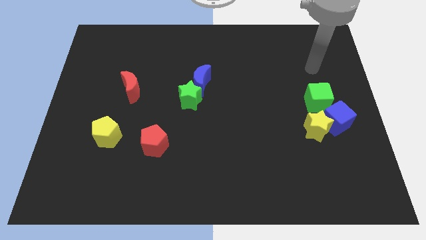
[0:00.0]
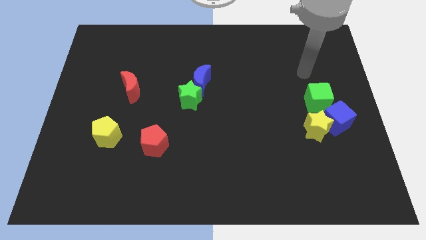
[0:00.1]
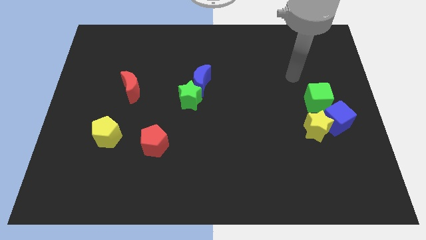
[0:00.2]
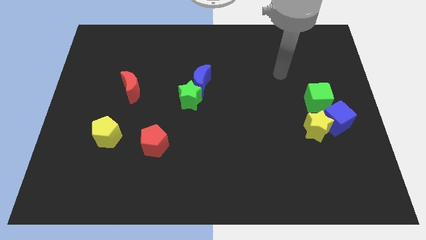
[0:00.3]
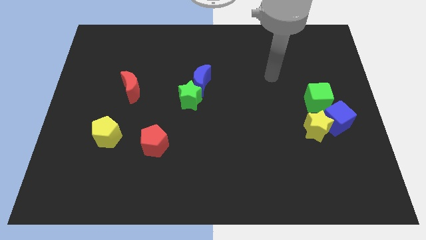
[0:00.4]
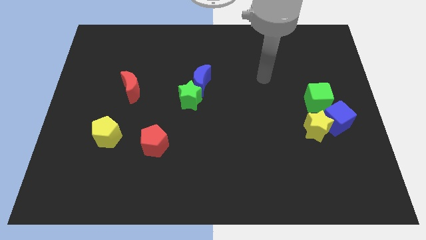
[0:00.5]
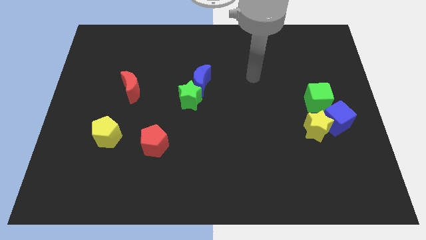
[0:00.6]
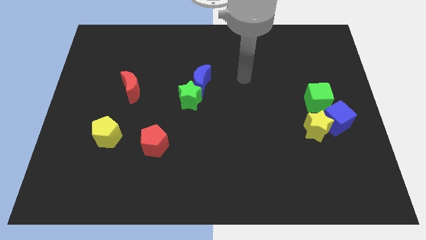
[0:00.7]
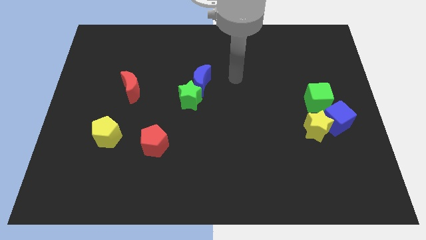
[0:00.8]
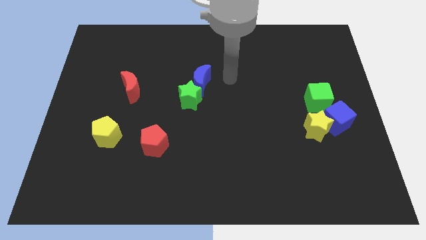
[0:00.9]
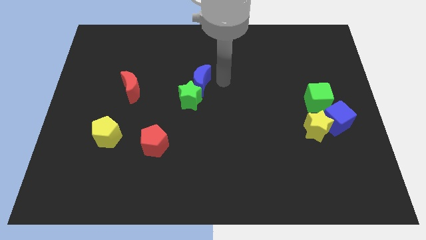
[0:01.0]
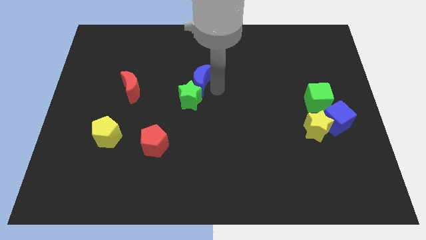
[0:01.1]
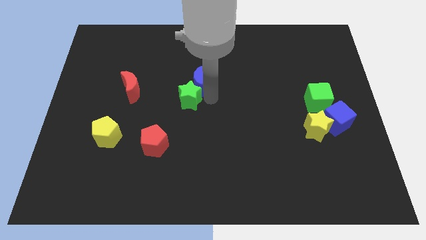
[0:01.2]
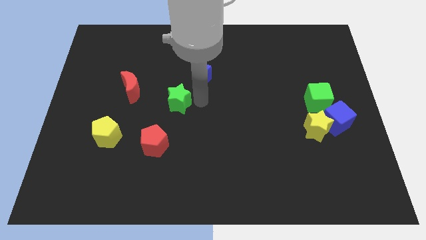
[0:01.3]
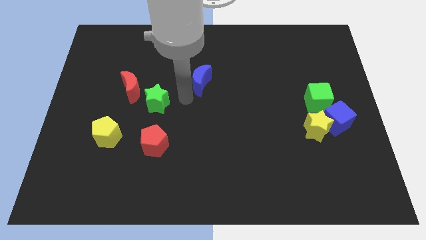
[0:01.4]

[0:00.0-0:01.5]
separate the blue moon from the green star

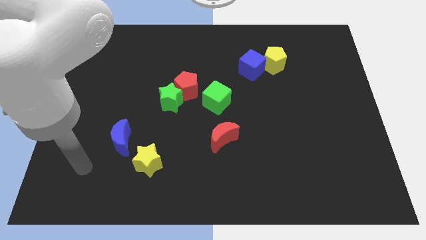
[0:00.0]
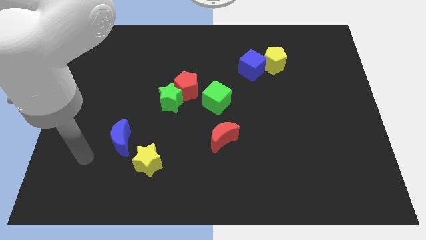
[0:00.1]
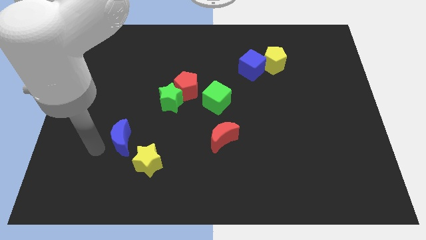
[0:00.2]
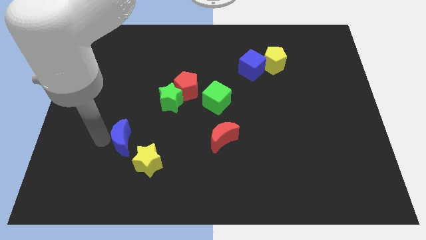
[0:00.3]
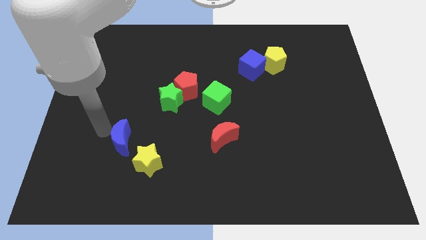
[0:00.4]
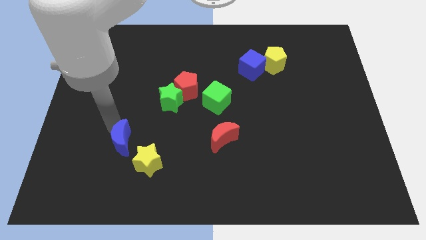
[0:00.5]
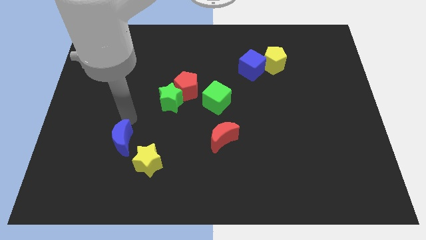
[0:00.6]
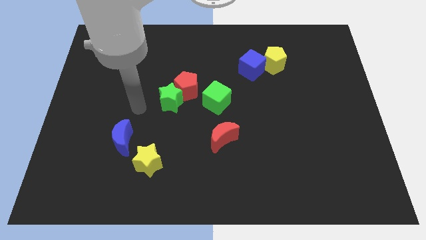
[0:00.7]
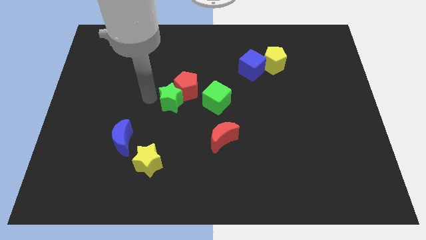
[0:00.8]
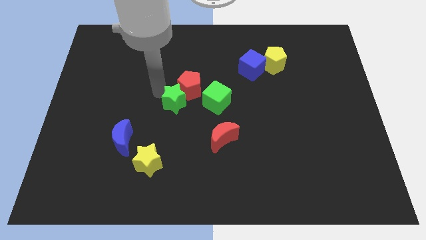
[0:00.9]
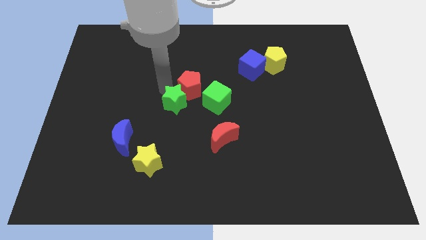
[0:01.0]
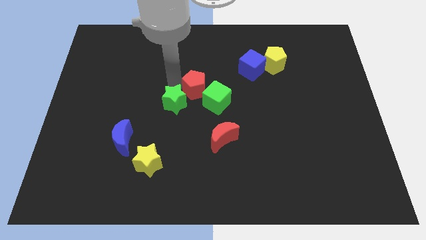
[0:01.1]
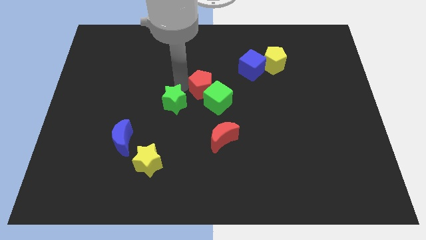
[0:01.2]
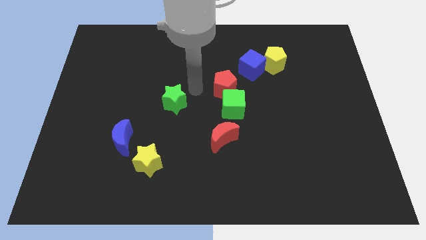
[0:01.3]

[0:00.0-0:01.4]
separate the green star from the red pentagon

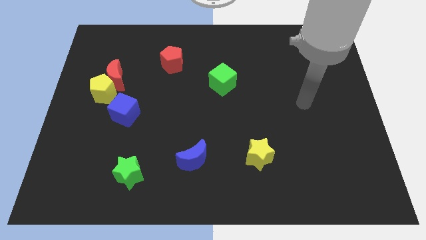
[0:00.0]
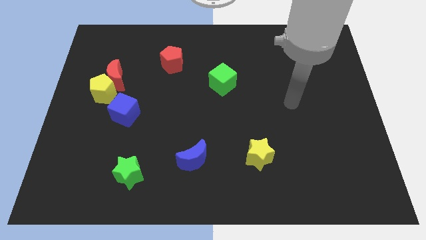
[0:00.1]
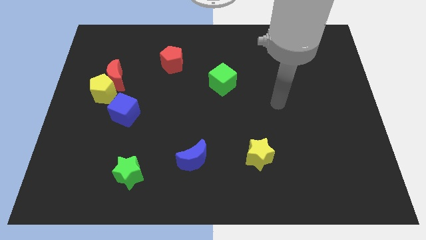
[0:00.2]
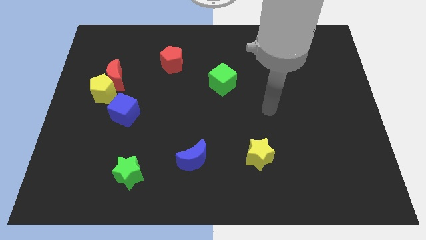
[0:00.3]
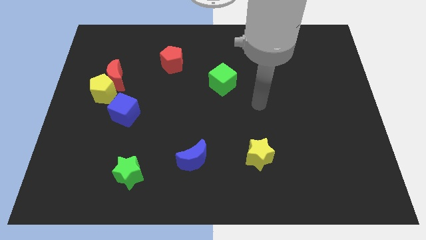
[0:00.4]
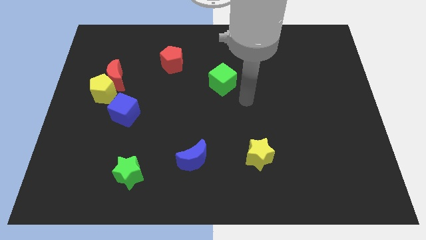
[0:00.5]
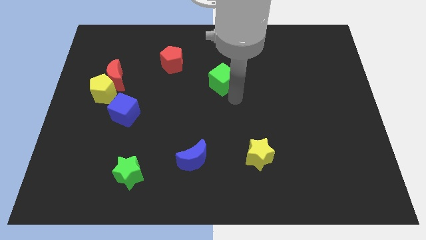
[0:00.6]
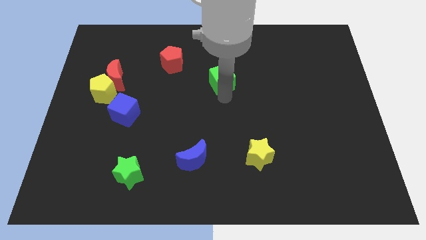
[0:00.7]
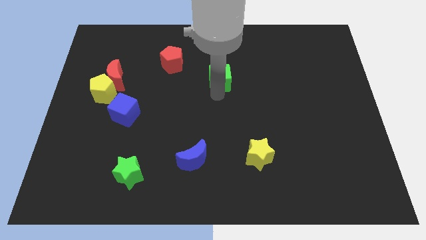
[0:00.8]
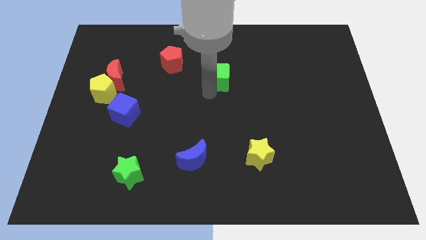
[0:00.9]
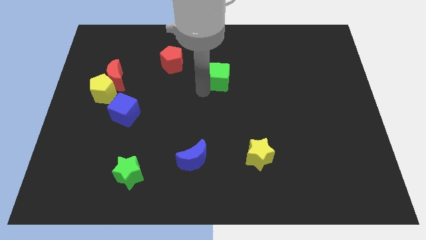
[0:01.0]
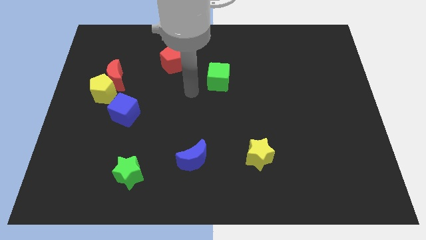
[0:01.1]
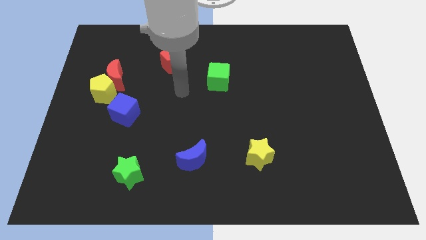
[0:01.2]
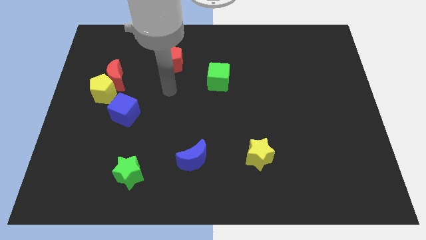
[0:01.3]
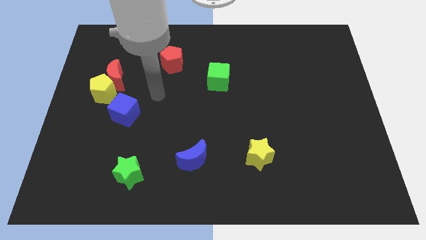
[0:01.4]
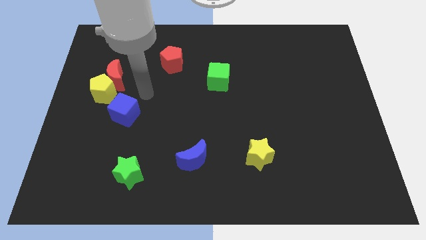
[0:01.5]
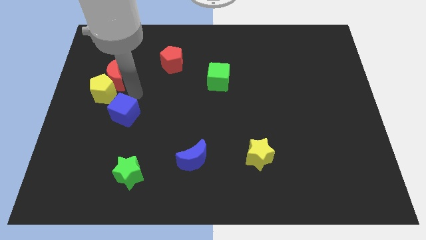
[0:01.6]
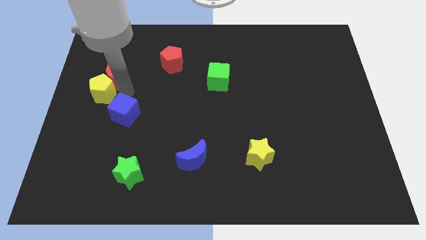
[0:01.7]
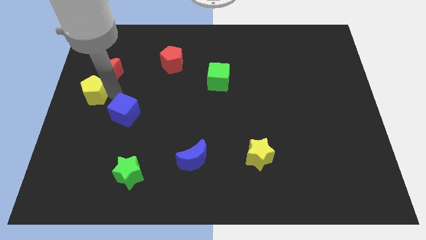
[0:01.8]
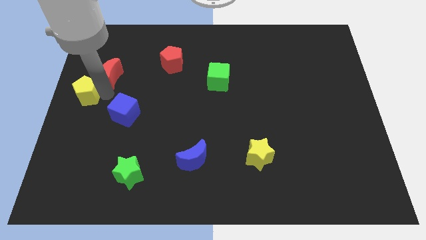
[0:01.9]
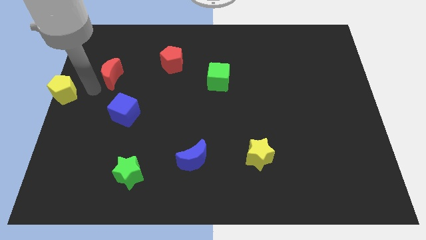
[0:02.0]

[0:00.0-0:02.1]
separate the red moon from the yellow pentagon

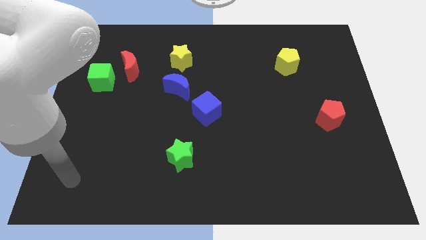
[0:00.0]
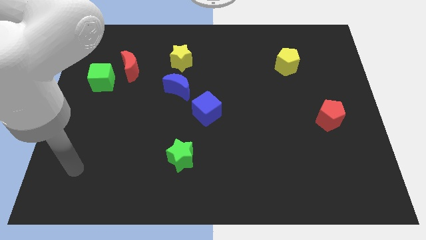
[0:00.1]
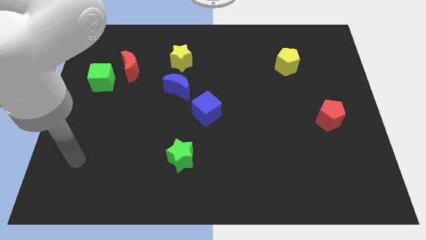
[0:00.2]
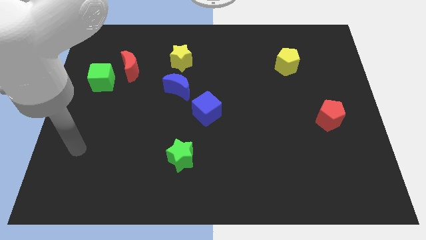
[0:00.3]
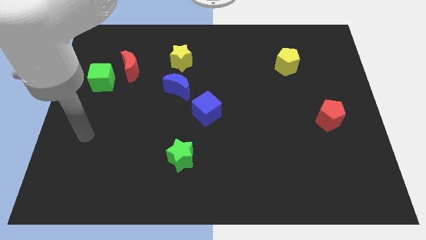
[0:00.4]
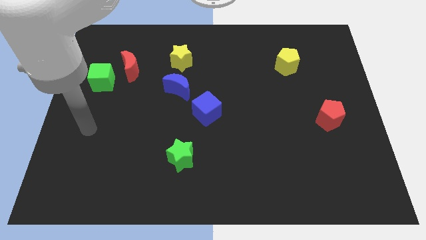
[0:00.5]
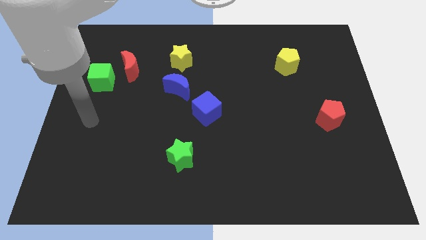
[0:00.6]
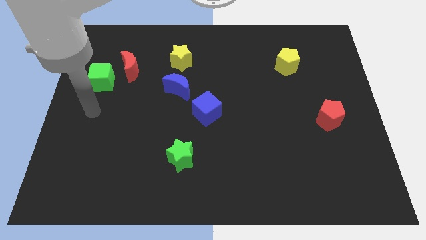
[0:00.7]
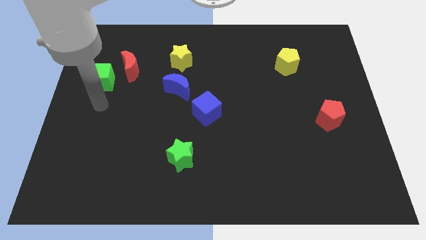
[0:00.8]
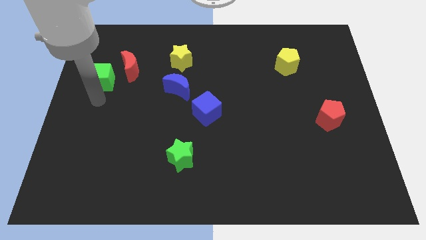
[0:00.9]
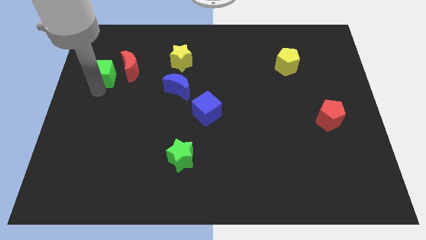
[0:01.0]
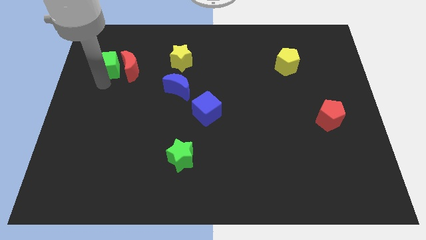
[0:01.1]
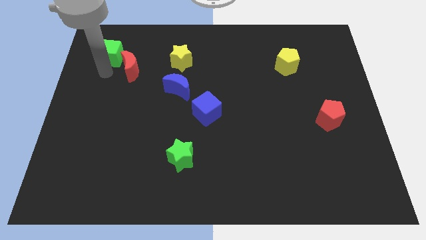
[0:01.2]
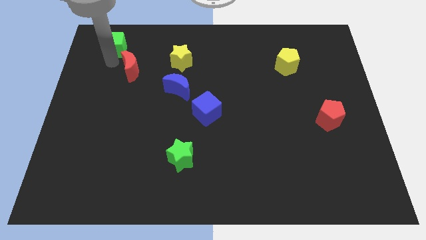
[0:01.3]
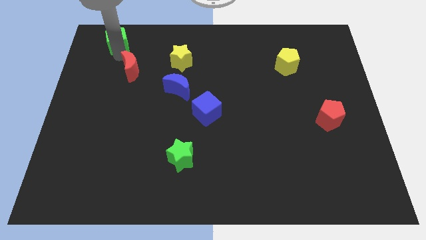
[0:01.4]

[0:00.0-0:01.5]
pull the red moon apart from the green cube

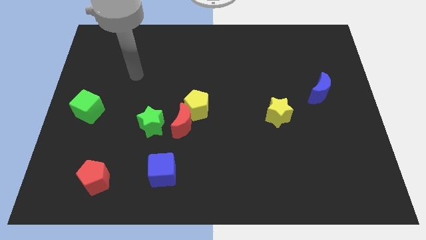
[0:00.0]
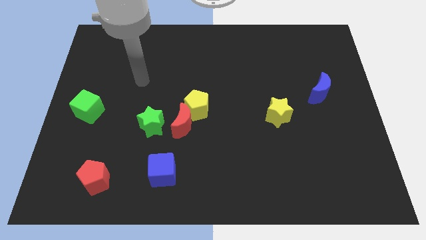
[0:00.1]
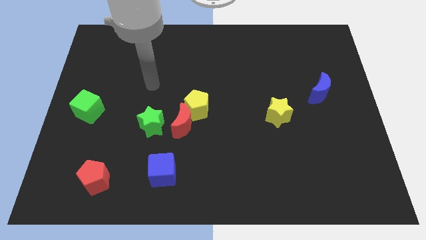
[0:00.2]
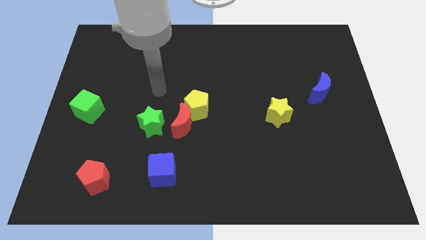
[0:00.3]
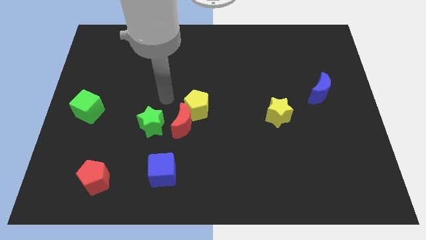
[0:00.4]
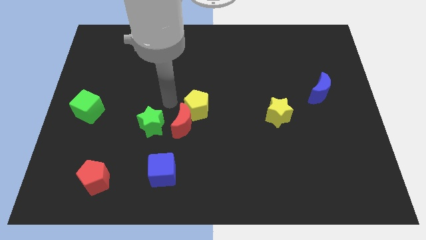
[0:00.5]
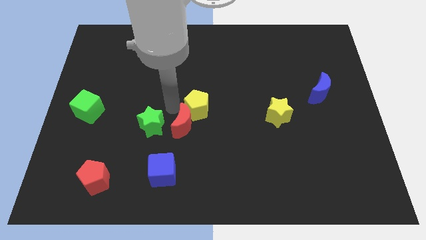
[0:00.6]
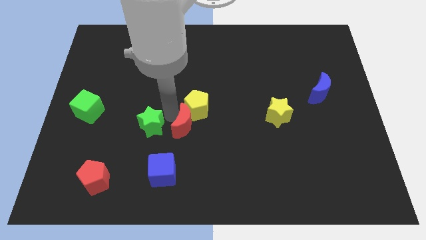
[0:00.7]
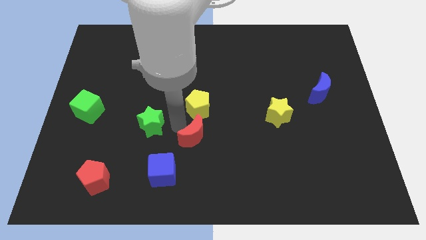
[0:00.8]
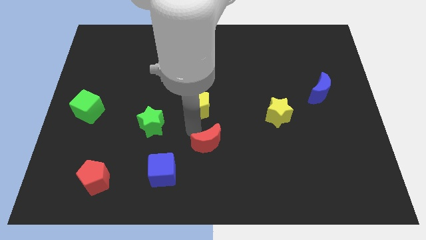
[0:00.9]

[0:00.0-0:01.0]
separate the yellow pentagon from the red moon

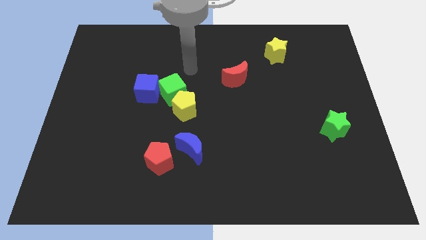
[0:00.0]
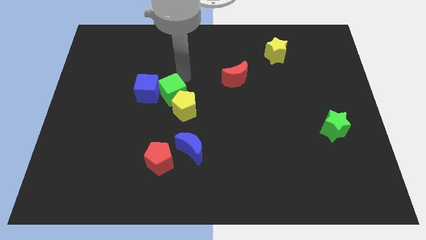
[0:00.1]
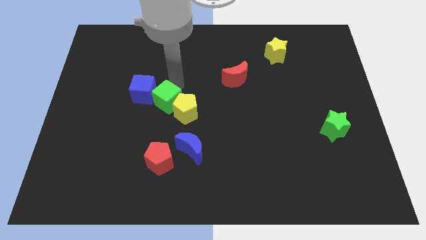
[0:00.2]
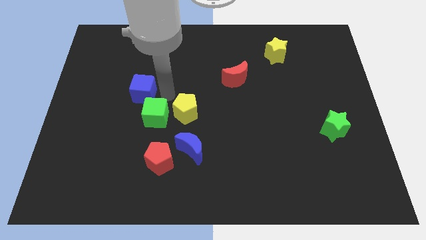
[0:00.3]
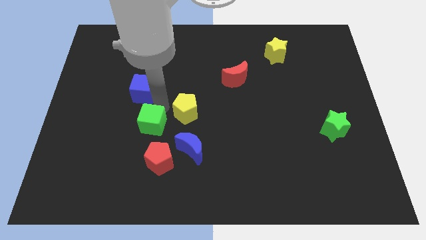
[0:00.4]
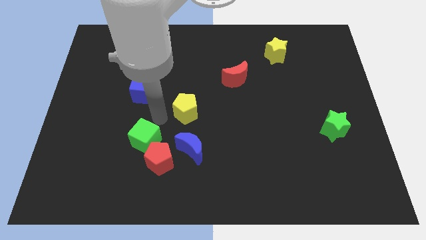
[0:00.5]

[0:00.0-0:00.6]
move the yellow pentagon away from the green cube

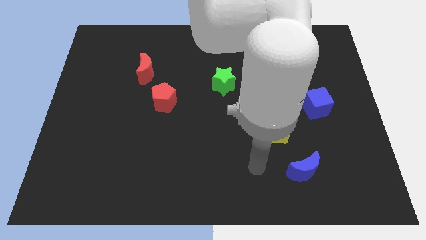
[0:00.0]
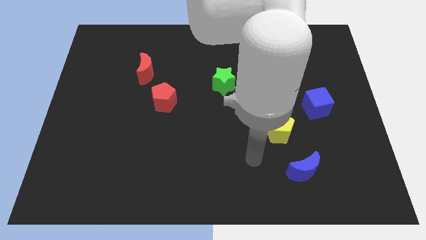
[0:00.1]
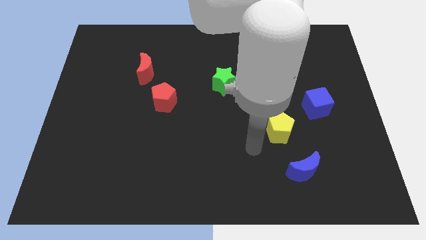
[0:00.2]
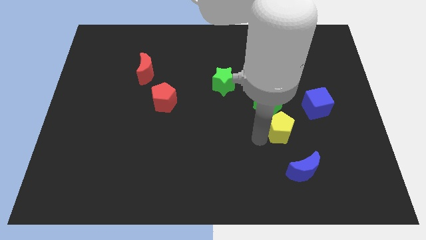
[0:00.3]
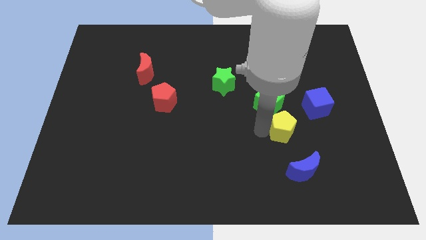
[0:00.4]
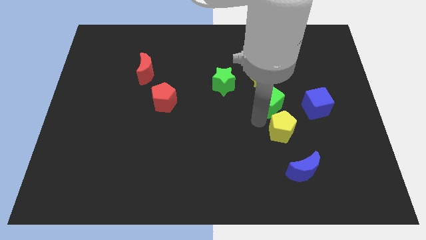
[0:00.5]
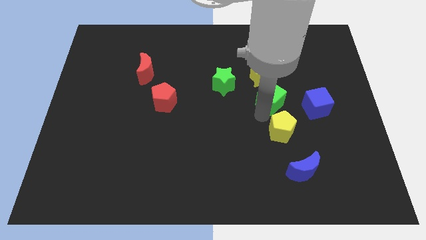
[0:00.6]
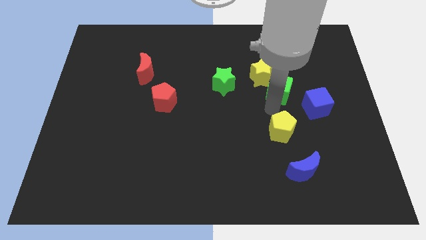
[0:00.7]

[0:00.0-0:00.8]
pull the yellow pentagon apart from the green cube

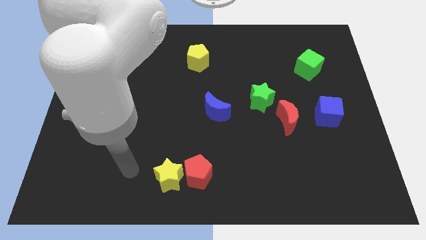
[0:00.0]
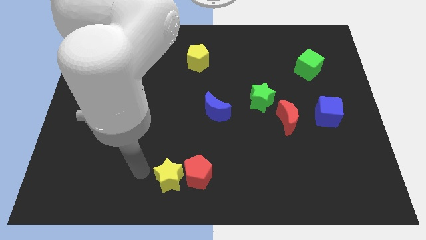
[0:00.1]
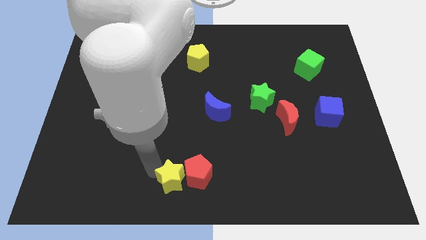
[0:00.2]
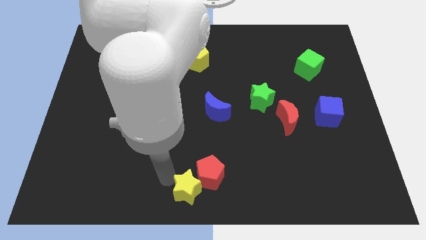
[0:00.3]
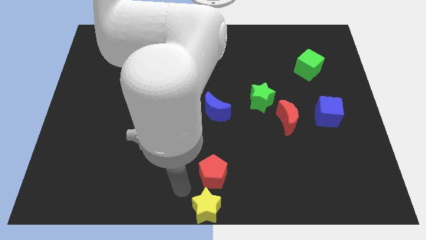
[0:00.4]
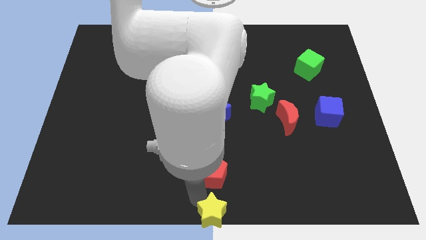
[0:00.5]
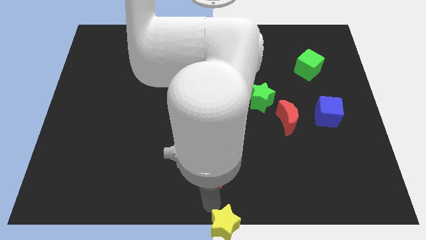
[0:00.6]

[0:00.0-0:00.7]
move the red pentagon away from the yellow star
